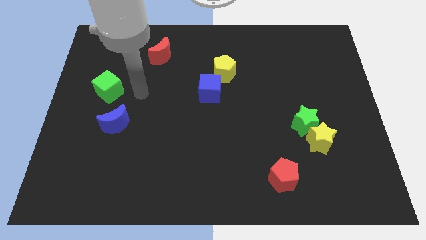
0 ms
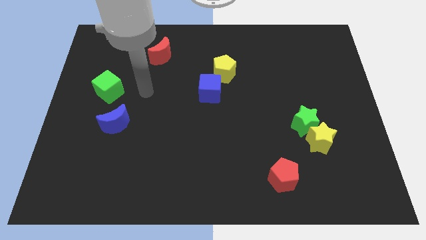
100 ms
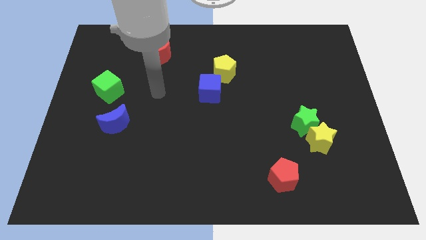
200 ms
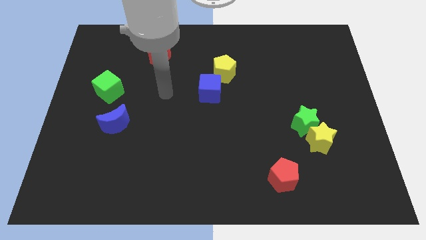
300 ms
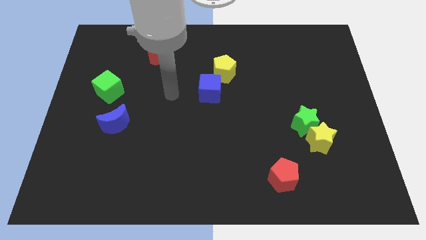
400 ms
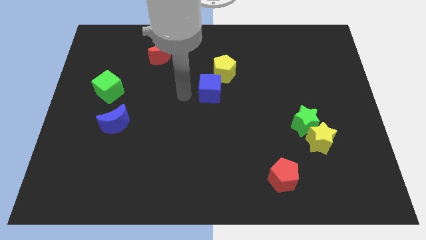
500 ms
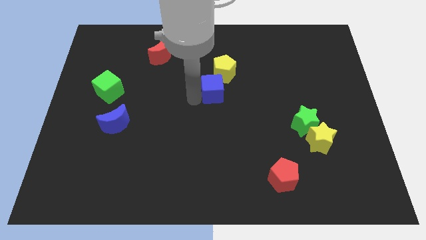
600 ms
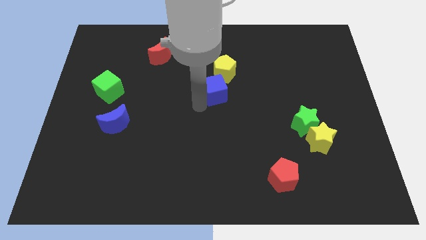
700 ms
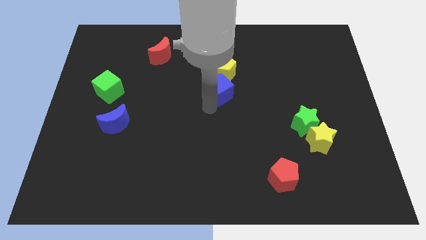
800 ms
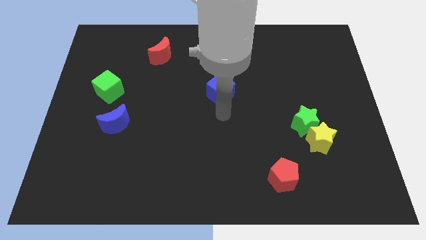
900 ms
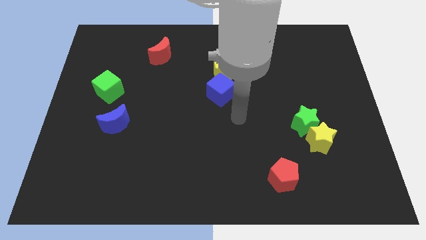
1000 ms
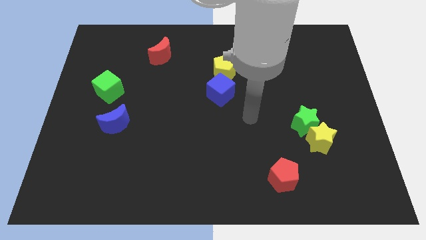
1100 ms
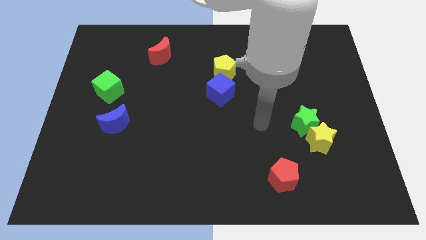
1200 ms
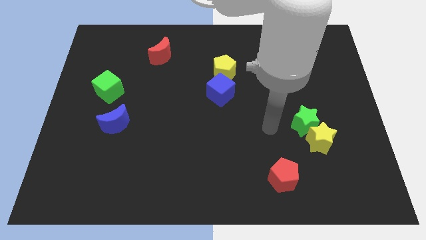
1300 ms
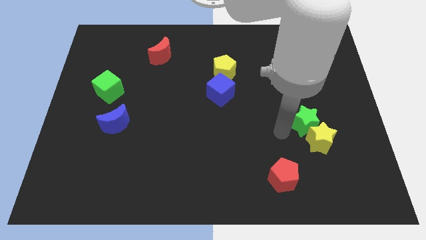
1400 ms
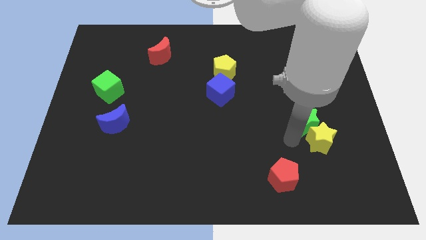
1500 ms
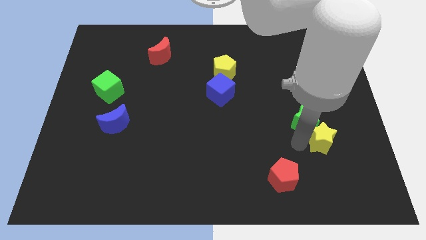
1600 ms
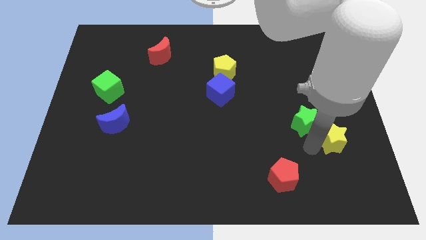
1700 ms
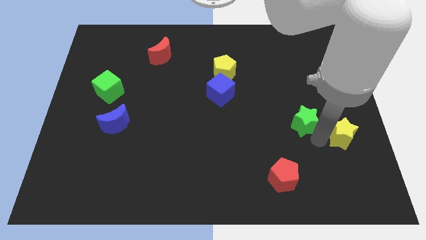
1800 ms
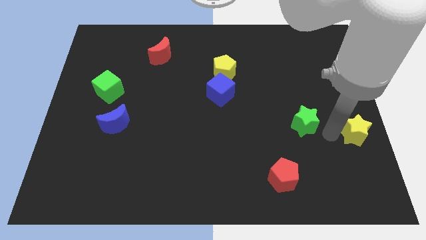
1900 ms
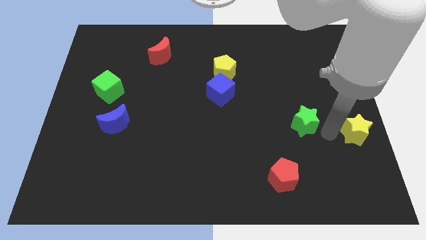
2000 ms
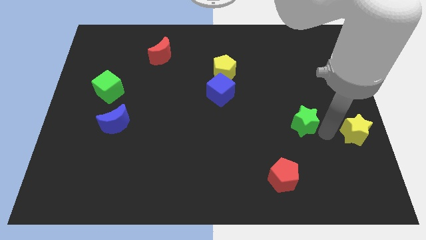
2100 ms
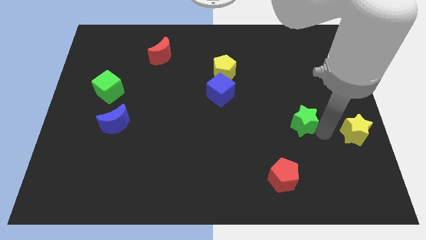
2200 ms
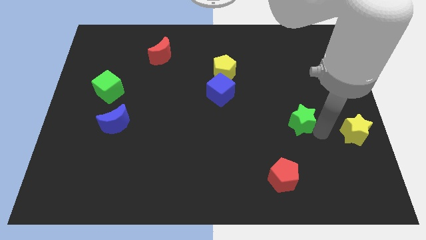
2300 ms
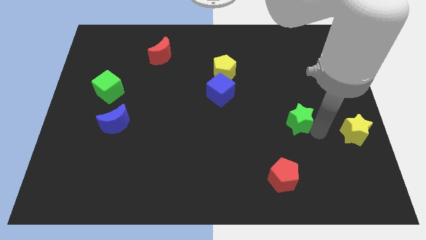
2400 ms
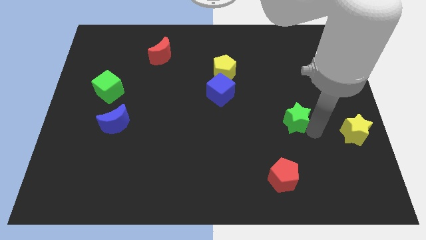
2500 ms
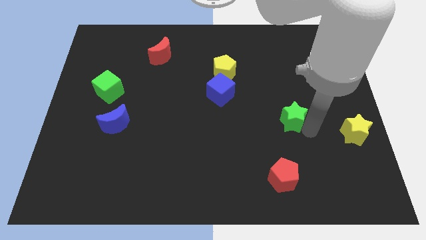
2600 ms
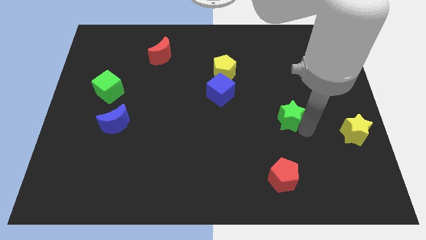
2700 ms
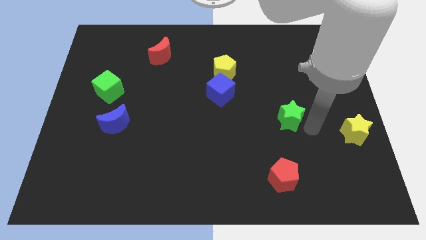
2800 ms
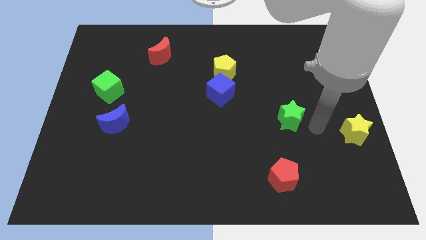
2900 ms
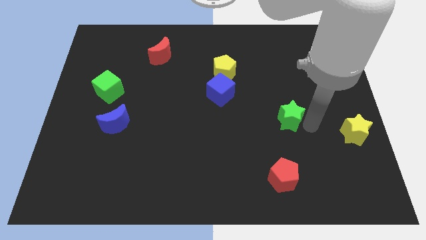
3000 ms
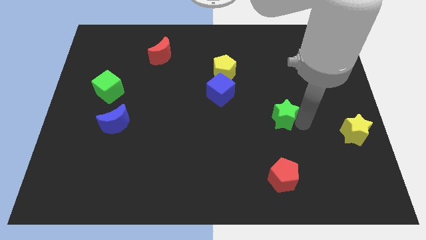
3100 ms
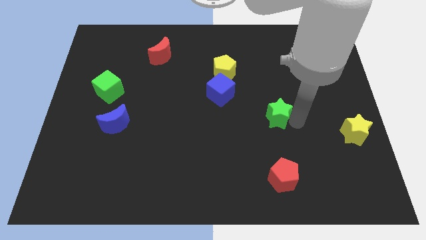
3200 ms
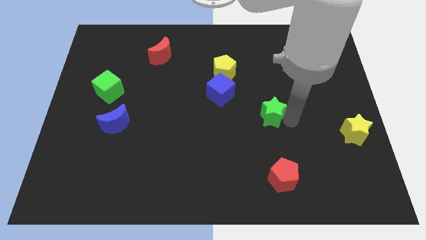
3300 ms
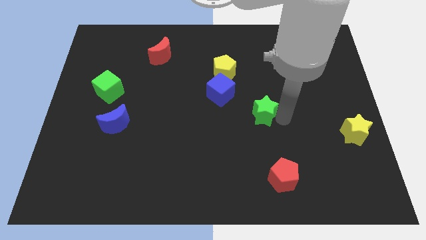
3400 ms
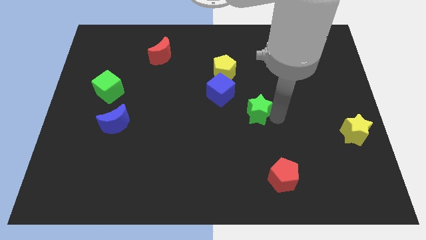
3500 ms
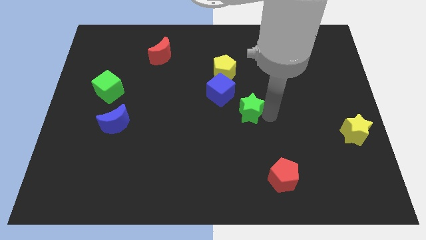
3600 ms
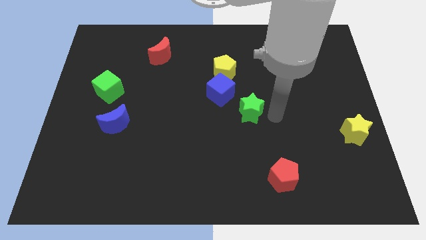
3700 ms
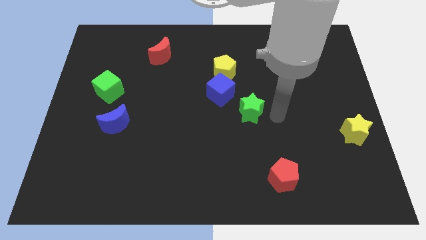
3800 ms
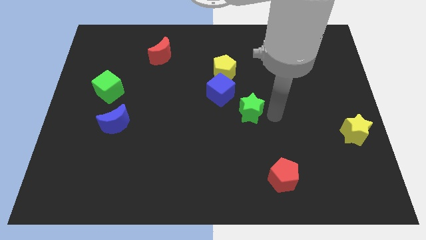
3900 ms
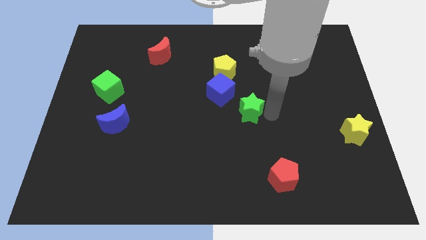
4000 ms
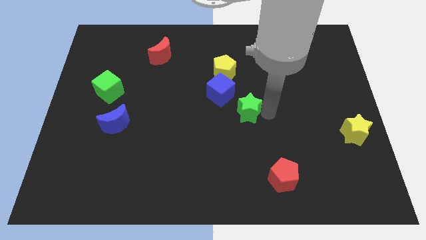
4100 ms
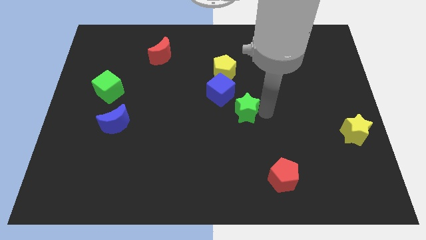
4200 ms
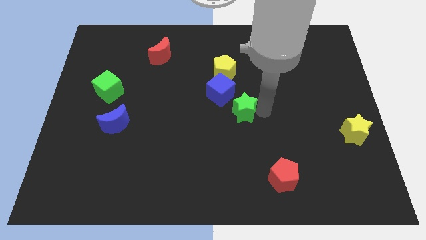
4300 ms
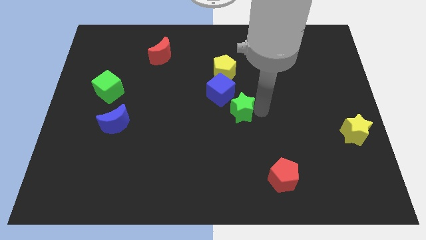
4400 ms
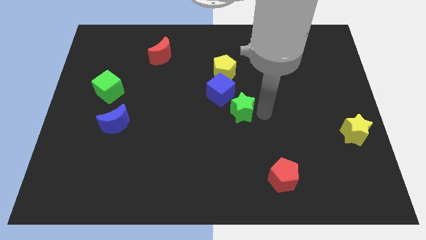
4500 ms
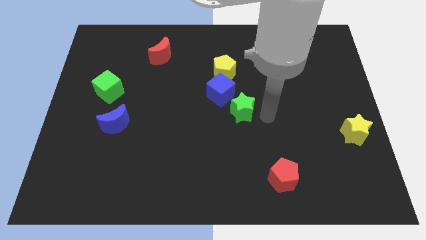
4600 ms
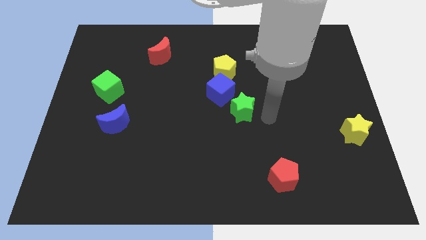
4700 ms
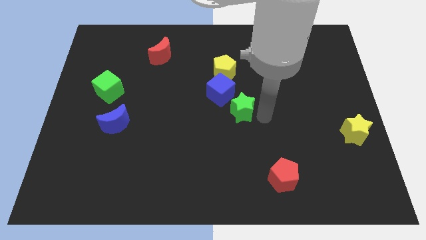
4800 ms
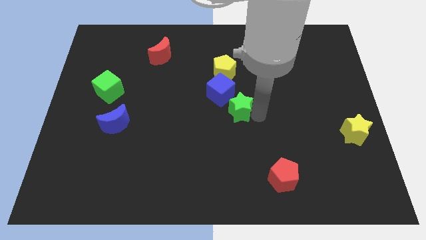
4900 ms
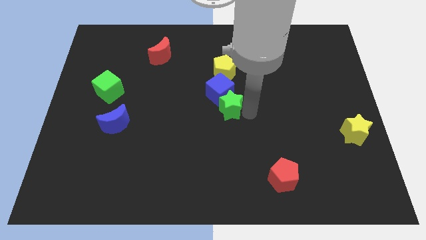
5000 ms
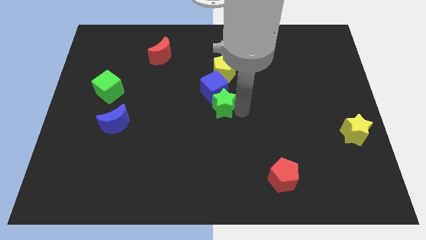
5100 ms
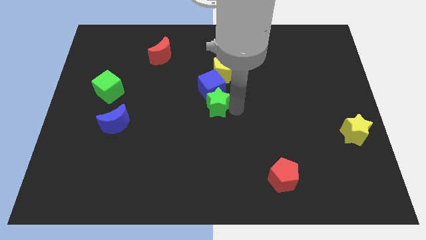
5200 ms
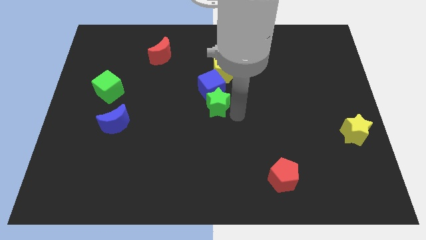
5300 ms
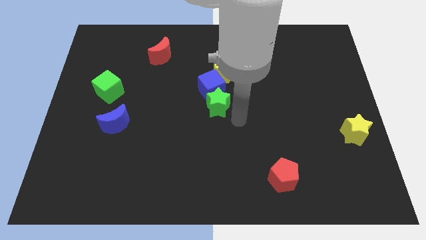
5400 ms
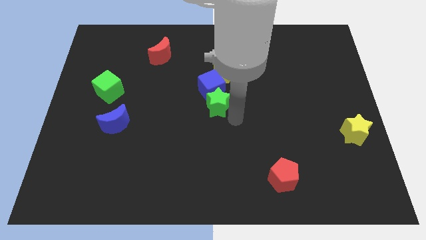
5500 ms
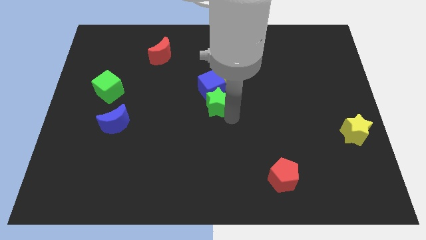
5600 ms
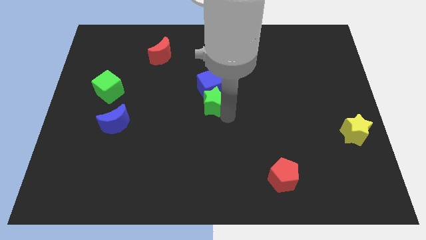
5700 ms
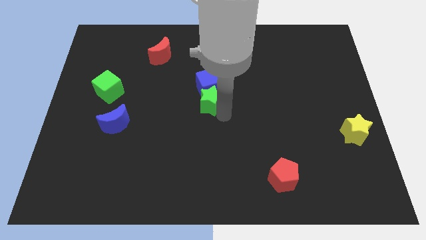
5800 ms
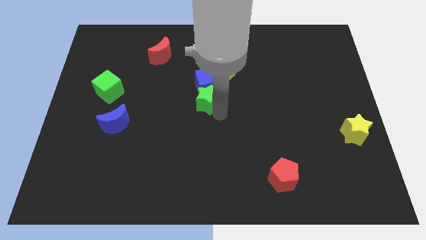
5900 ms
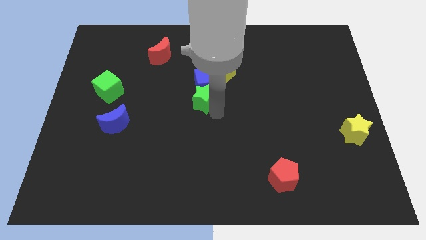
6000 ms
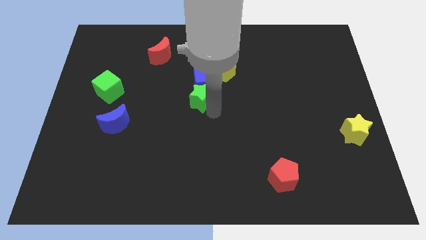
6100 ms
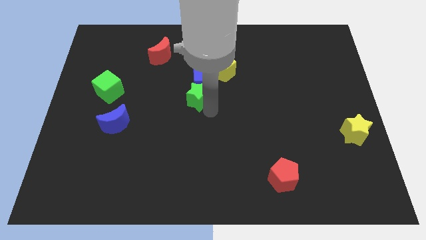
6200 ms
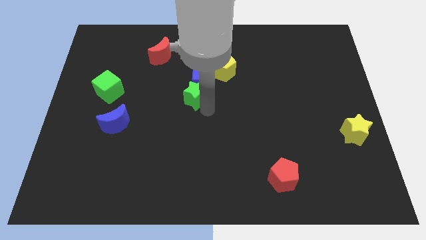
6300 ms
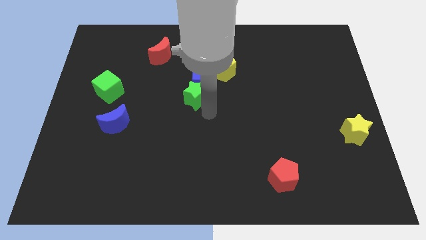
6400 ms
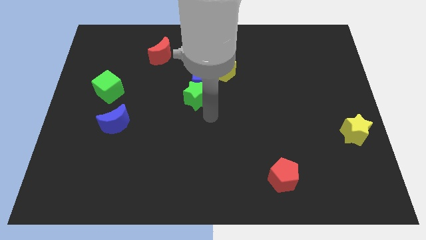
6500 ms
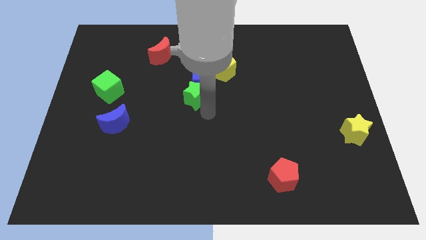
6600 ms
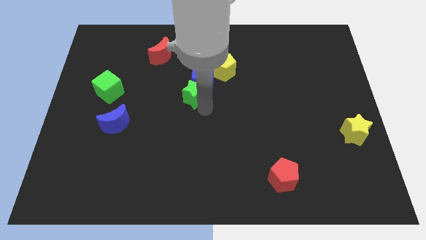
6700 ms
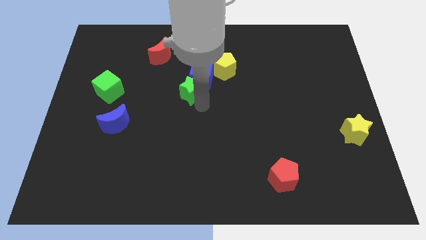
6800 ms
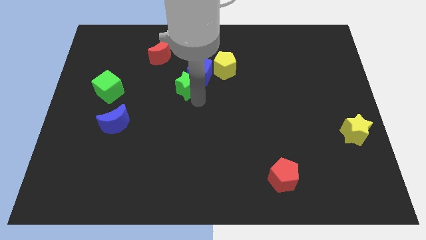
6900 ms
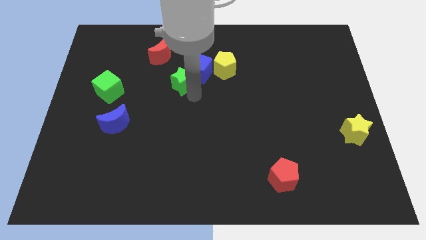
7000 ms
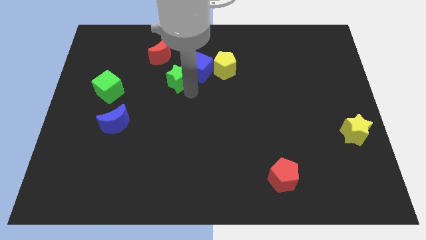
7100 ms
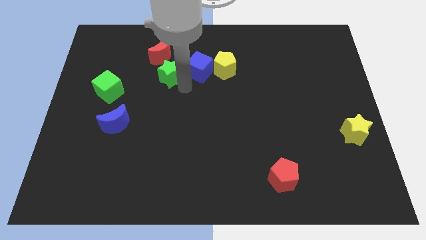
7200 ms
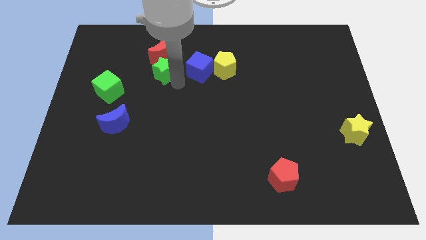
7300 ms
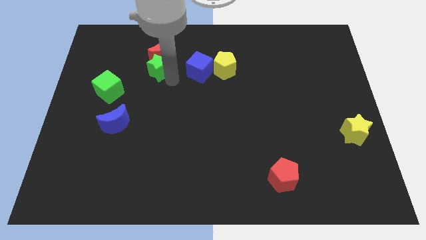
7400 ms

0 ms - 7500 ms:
slide the green star next to the red moon
